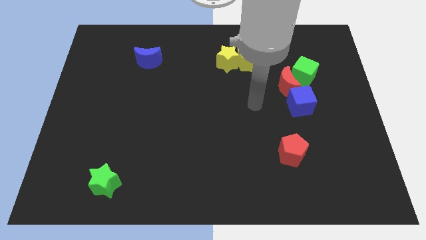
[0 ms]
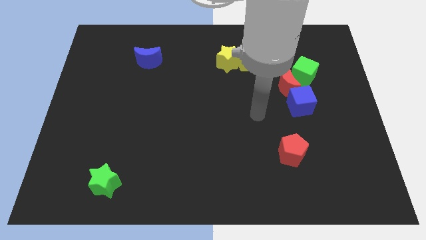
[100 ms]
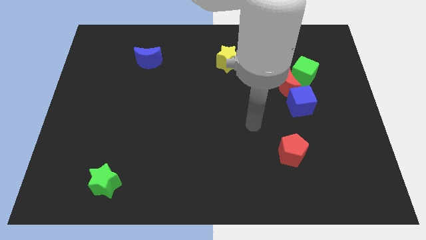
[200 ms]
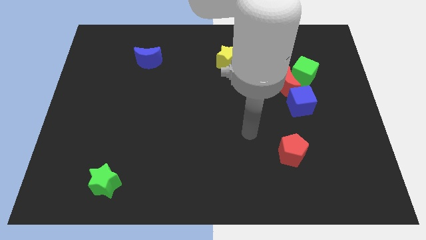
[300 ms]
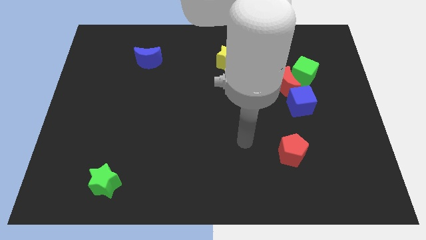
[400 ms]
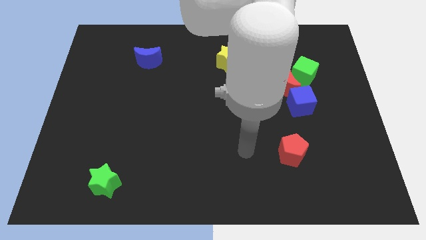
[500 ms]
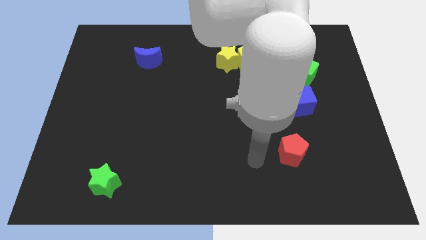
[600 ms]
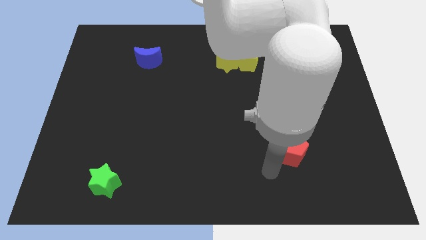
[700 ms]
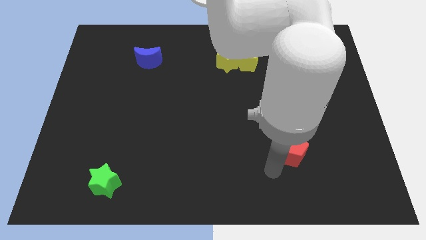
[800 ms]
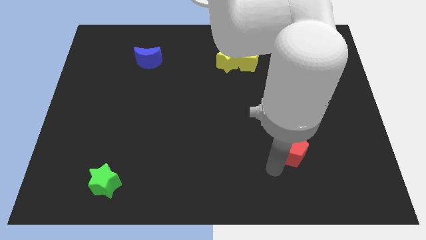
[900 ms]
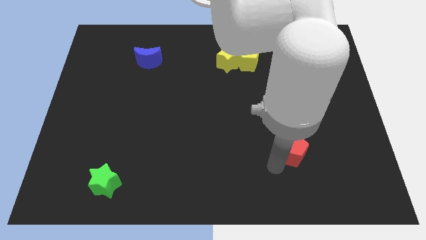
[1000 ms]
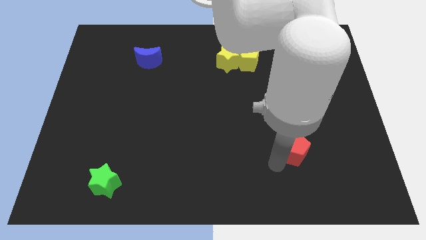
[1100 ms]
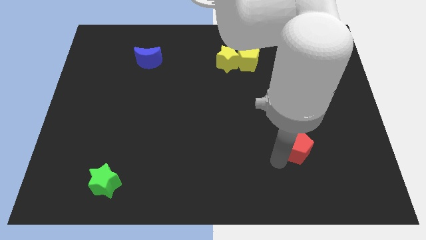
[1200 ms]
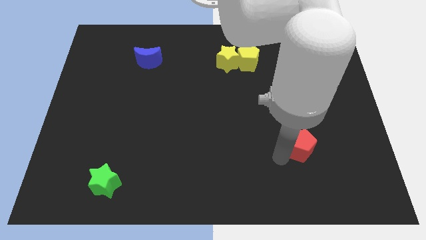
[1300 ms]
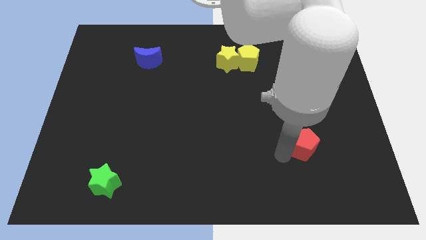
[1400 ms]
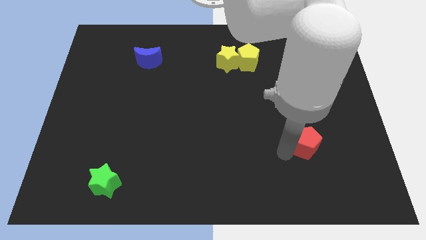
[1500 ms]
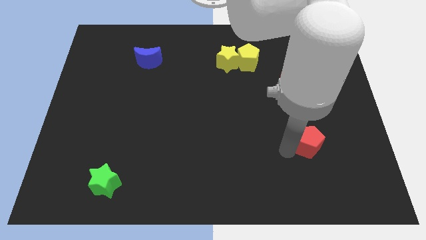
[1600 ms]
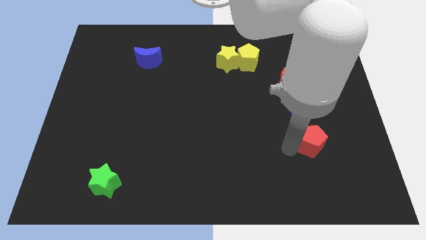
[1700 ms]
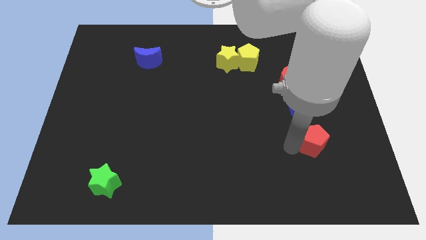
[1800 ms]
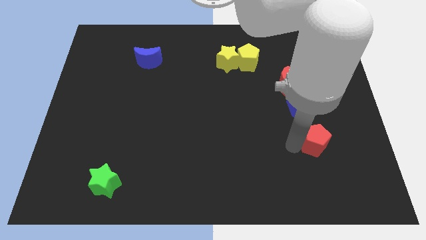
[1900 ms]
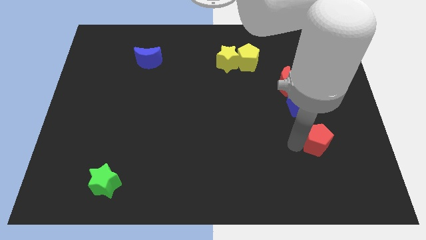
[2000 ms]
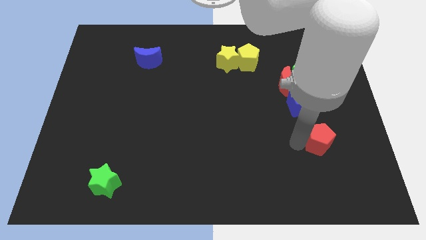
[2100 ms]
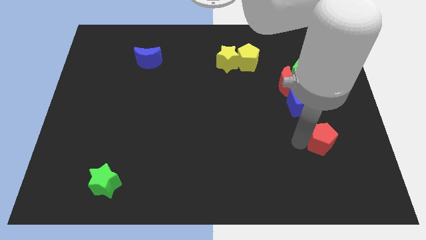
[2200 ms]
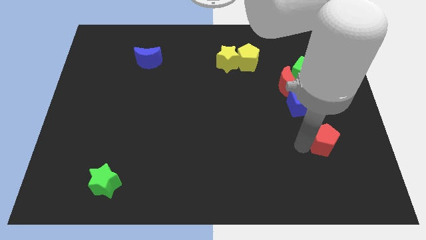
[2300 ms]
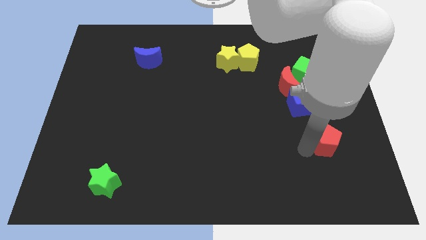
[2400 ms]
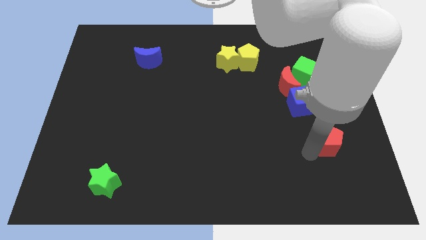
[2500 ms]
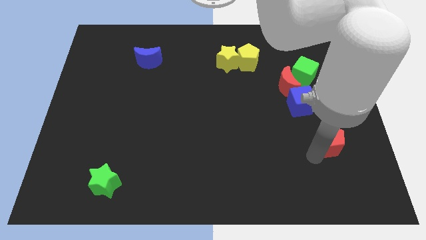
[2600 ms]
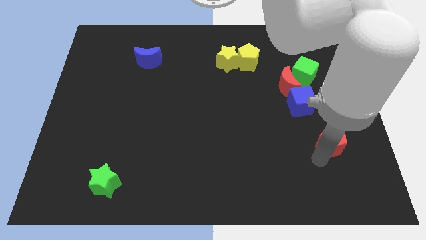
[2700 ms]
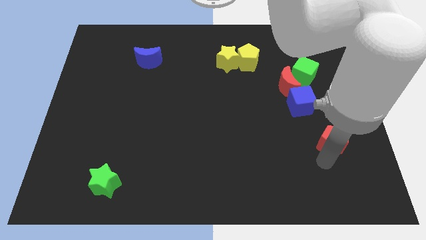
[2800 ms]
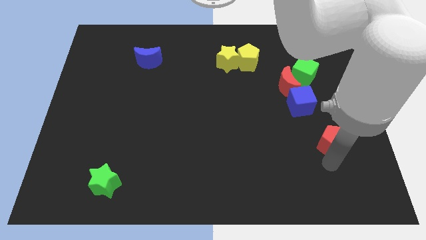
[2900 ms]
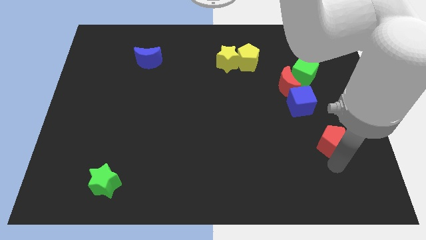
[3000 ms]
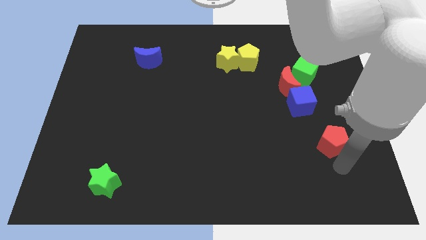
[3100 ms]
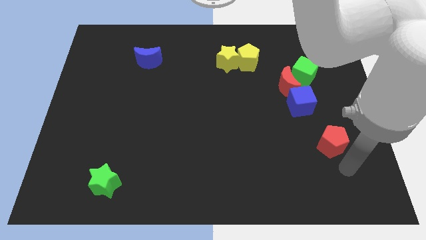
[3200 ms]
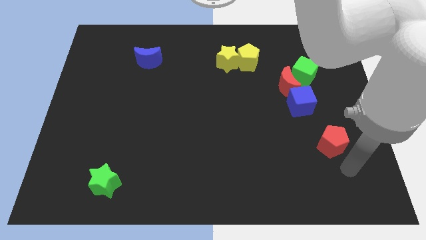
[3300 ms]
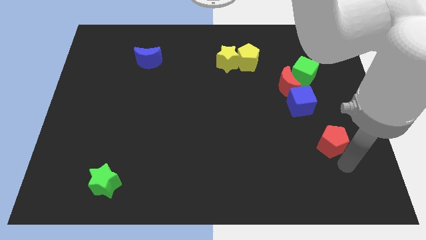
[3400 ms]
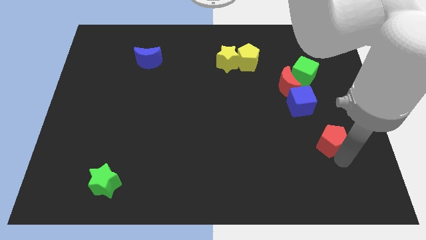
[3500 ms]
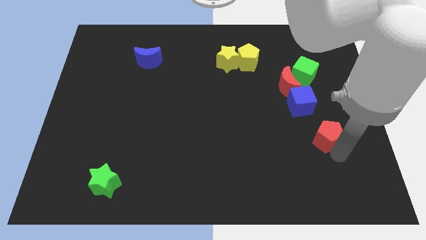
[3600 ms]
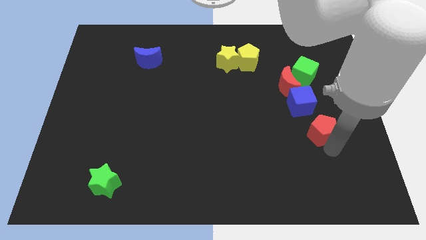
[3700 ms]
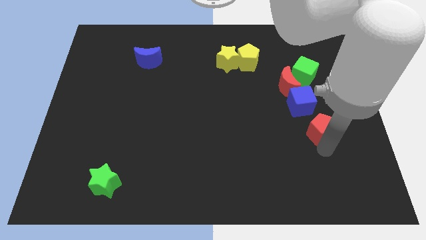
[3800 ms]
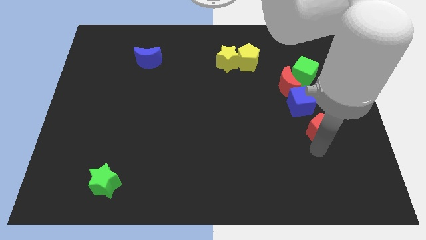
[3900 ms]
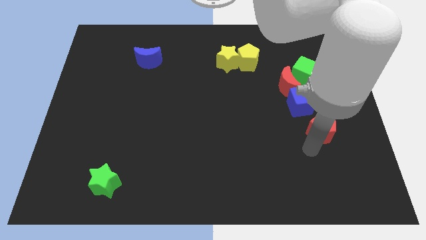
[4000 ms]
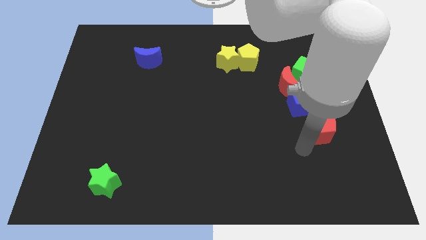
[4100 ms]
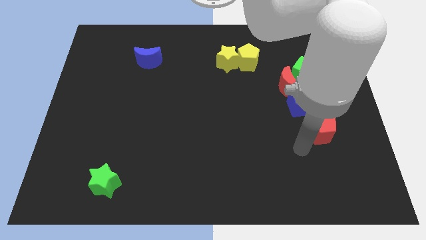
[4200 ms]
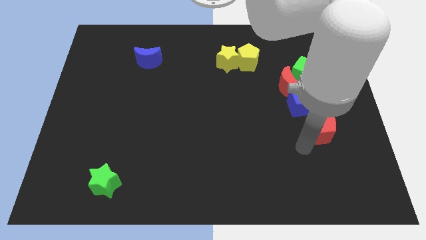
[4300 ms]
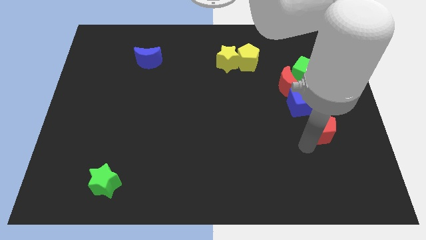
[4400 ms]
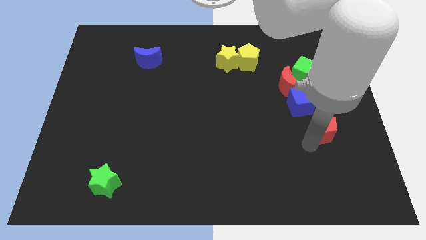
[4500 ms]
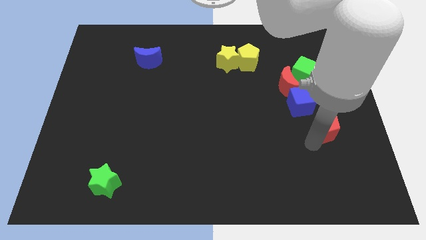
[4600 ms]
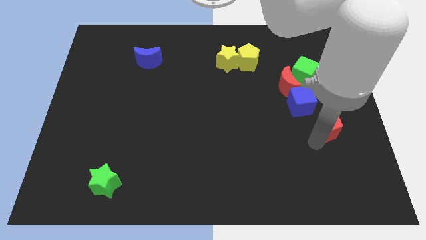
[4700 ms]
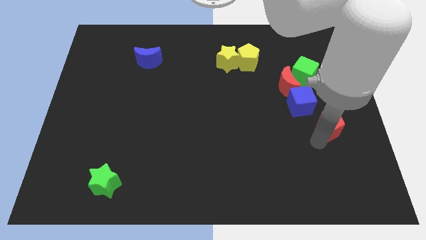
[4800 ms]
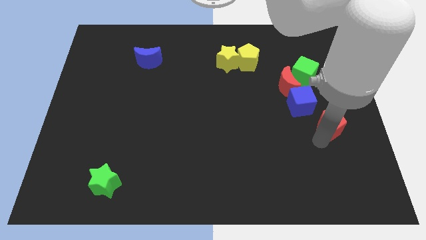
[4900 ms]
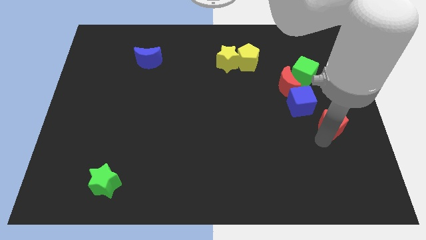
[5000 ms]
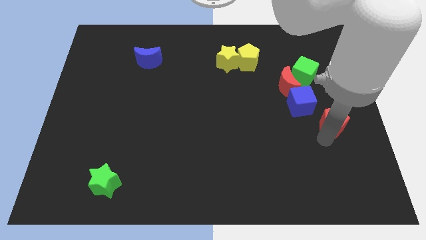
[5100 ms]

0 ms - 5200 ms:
push the red pentagon to the center right

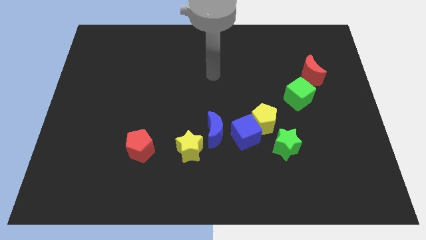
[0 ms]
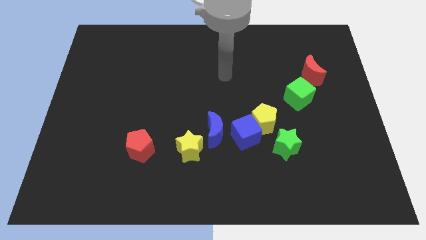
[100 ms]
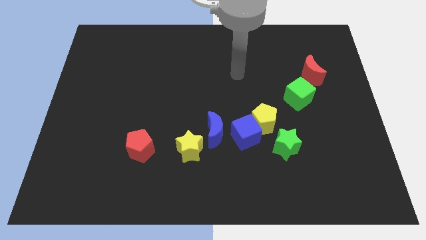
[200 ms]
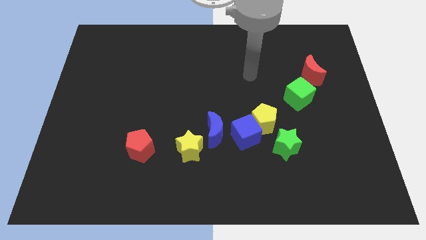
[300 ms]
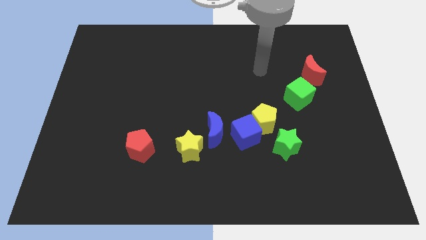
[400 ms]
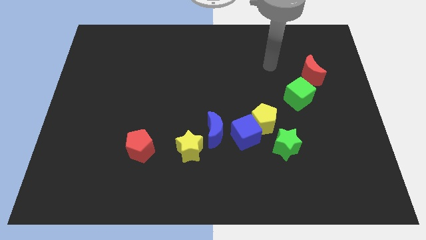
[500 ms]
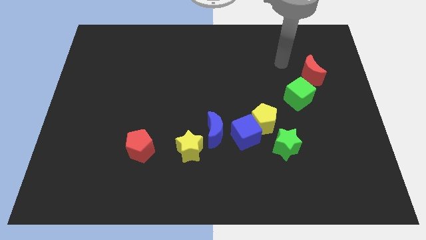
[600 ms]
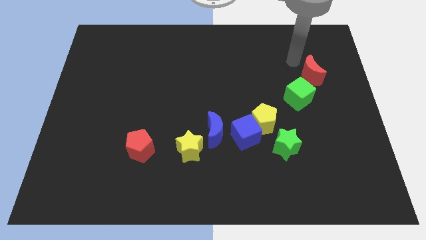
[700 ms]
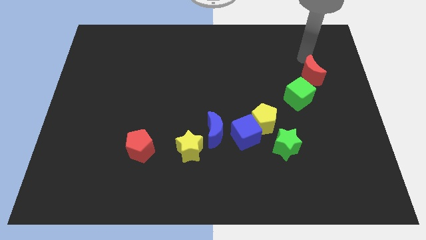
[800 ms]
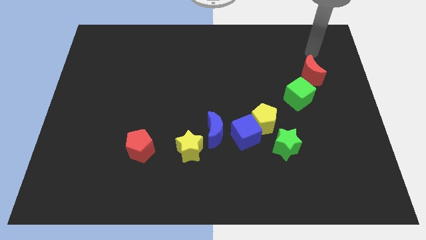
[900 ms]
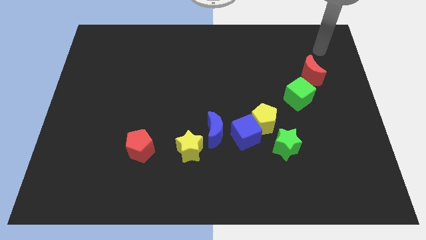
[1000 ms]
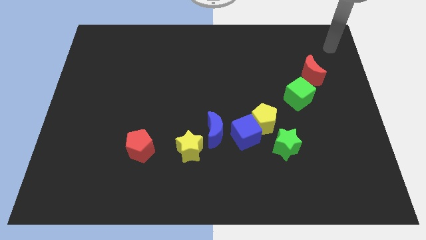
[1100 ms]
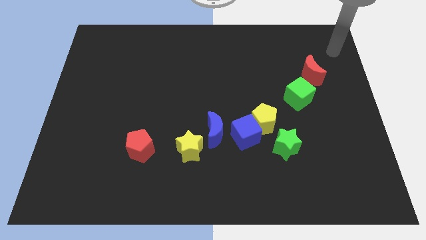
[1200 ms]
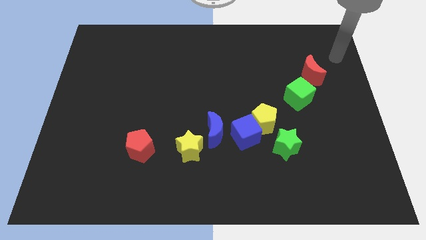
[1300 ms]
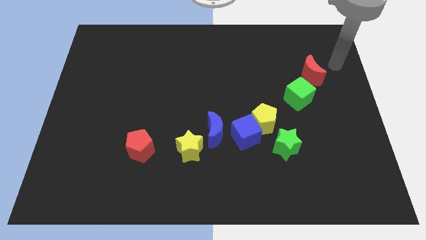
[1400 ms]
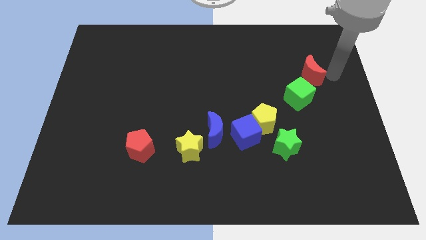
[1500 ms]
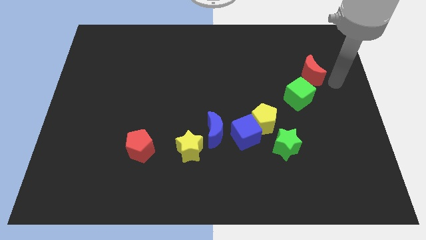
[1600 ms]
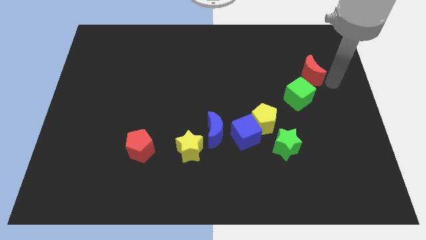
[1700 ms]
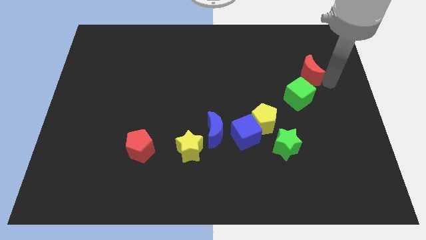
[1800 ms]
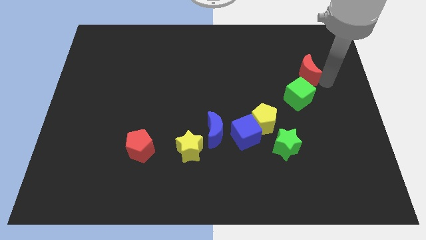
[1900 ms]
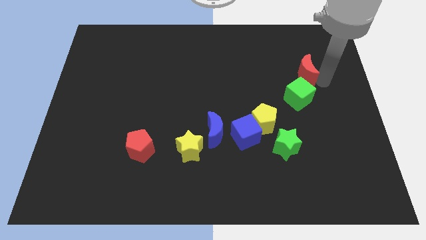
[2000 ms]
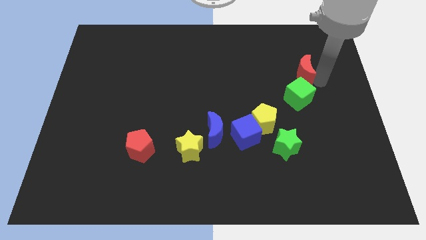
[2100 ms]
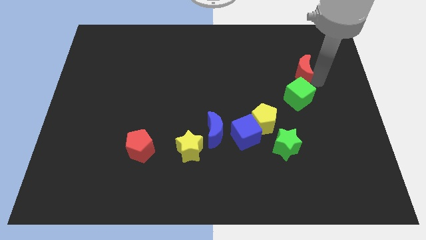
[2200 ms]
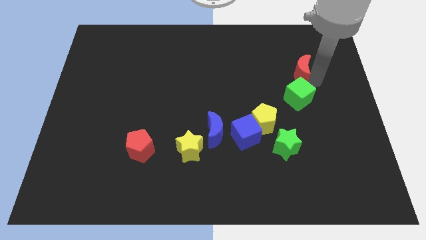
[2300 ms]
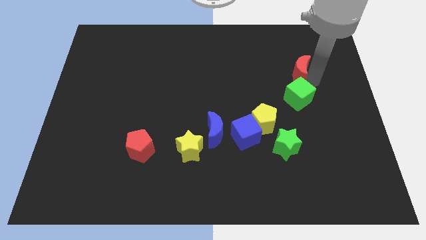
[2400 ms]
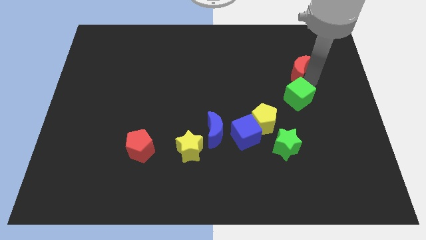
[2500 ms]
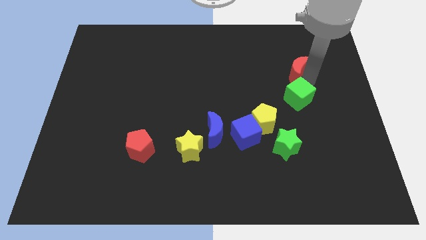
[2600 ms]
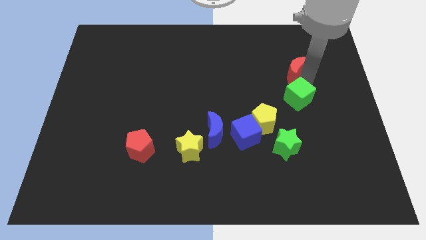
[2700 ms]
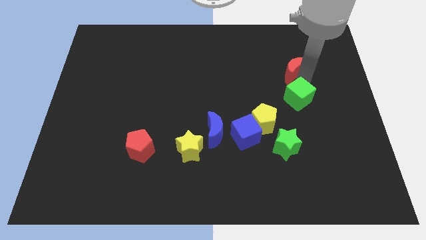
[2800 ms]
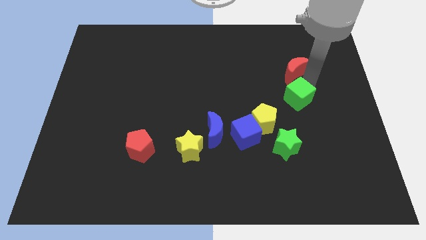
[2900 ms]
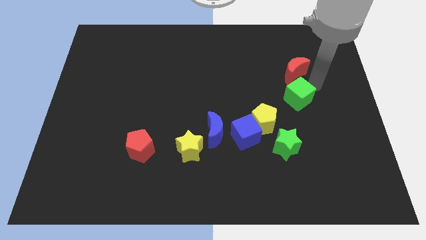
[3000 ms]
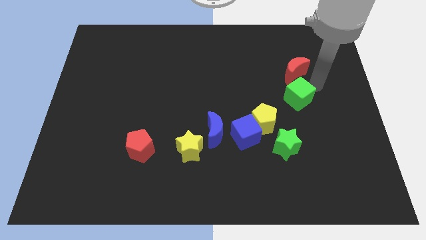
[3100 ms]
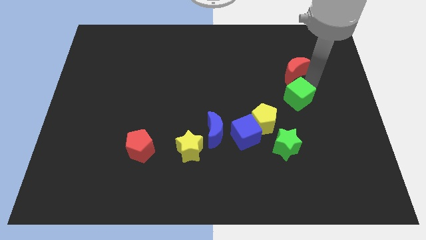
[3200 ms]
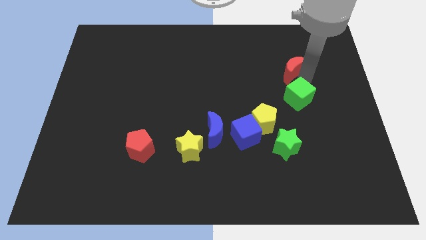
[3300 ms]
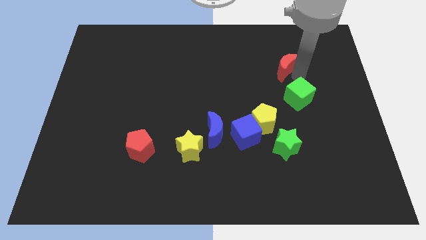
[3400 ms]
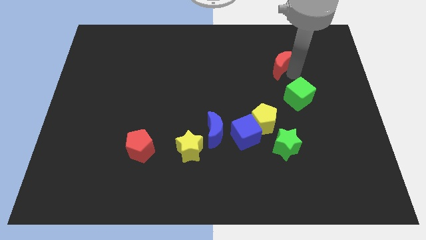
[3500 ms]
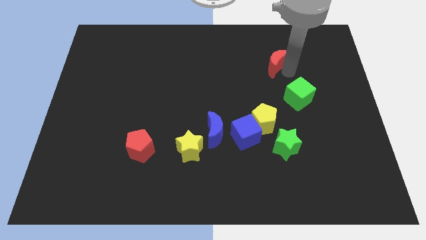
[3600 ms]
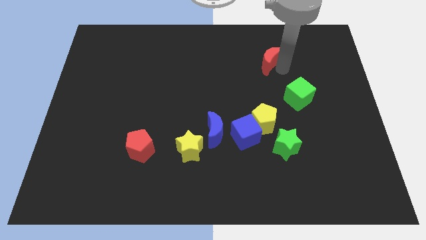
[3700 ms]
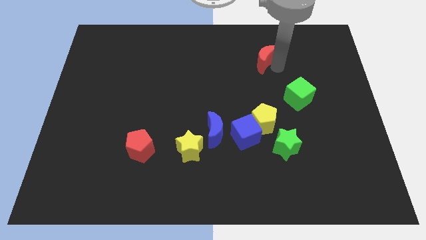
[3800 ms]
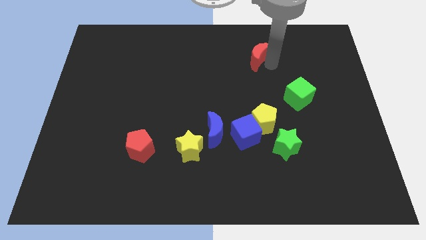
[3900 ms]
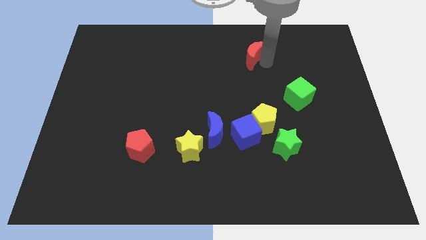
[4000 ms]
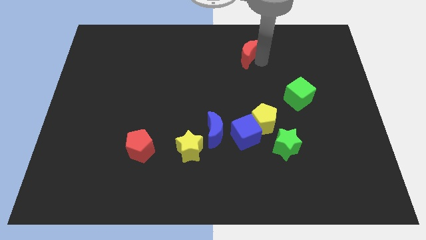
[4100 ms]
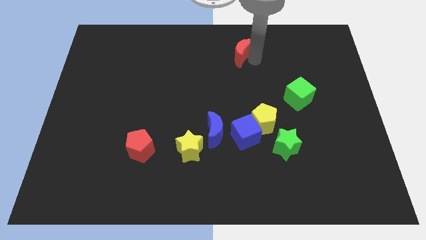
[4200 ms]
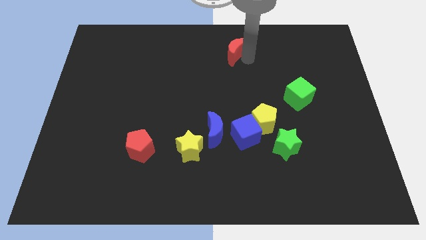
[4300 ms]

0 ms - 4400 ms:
move the red moon to the top side
